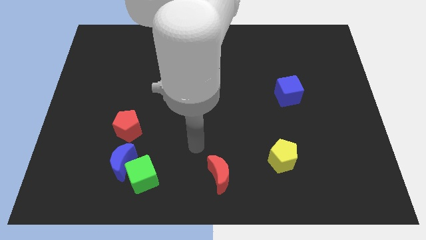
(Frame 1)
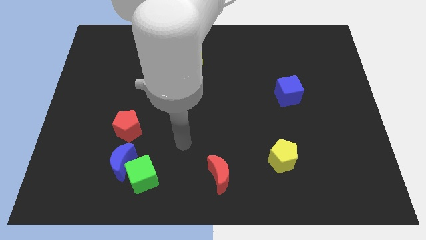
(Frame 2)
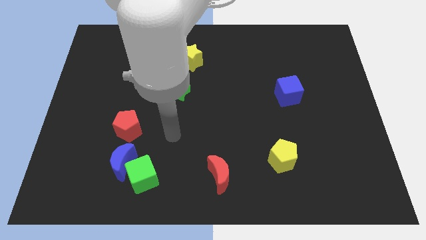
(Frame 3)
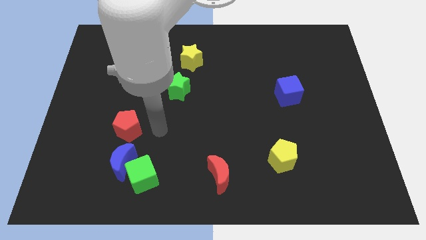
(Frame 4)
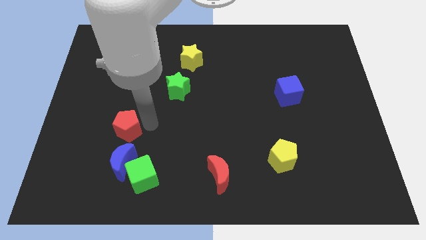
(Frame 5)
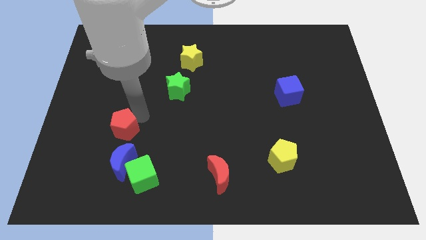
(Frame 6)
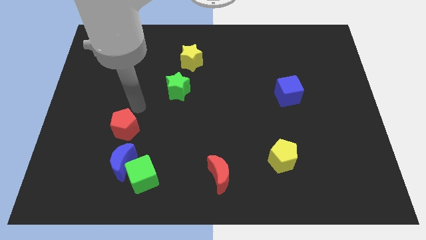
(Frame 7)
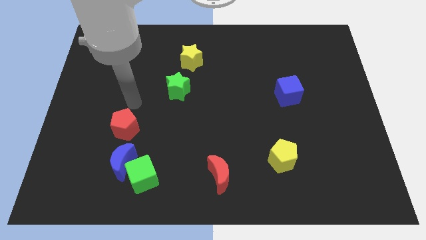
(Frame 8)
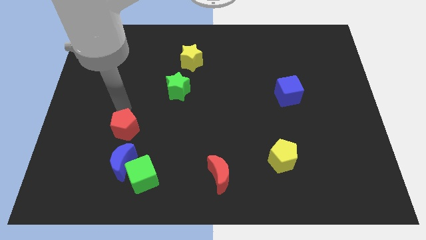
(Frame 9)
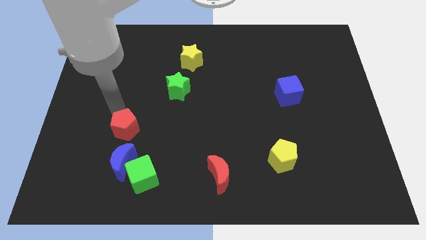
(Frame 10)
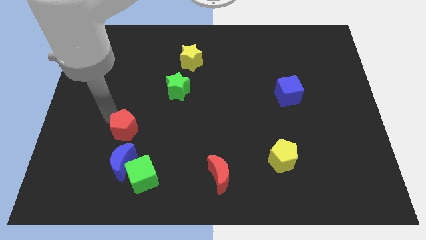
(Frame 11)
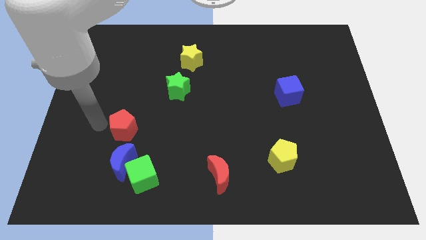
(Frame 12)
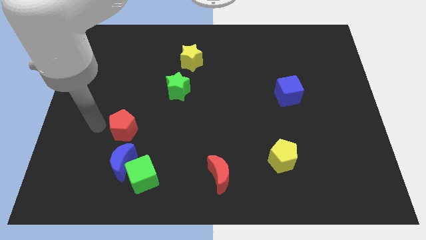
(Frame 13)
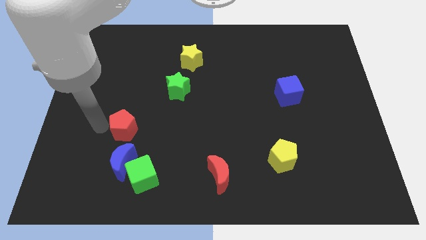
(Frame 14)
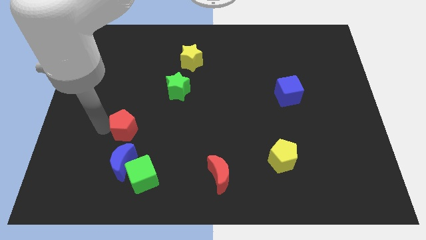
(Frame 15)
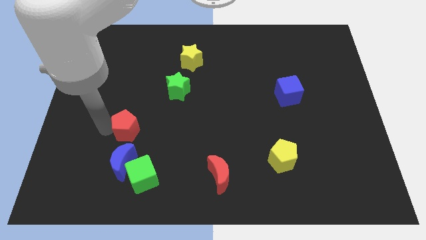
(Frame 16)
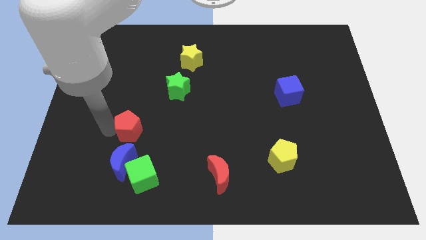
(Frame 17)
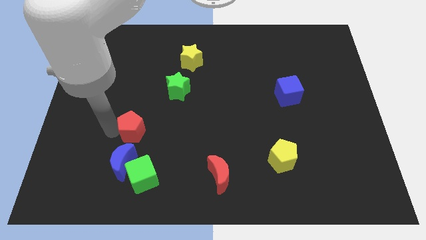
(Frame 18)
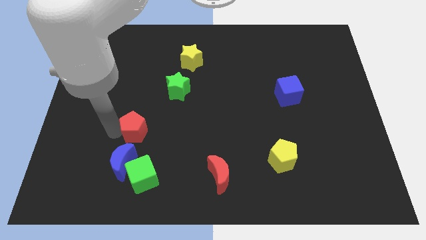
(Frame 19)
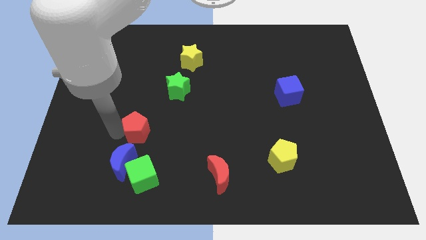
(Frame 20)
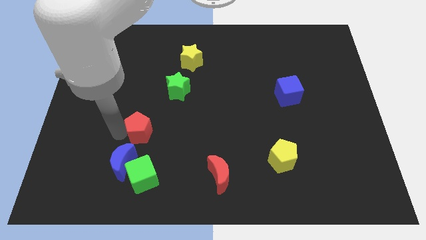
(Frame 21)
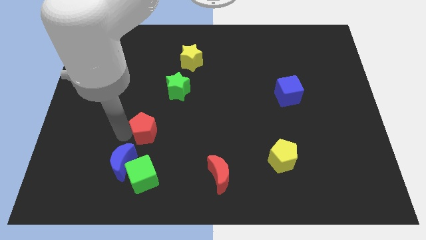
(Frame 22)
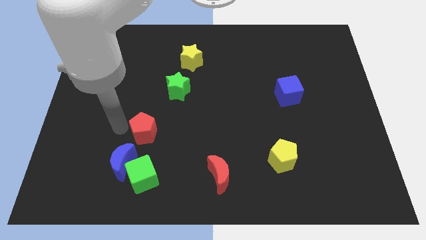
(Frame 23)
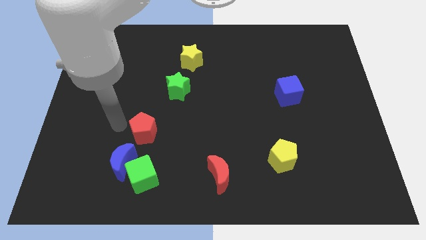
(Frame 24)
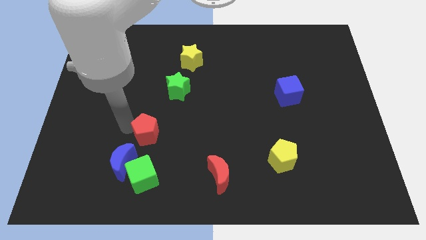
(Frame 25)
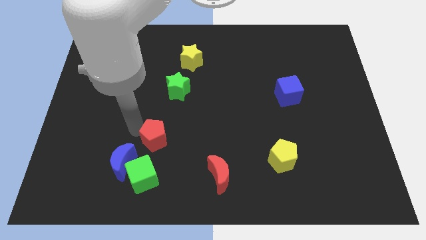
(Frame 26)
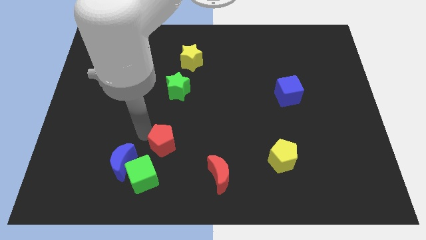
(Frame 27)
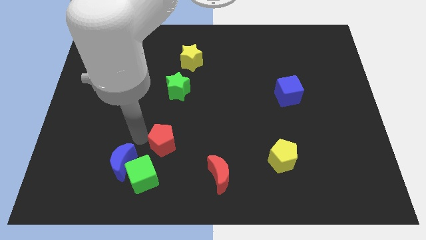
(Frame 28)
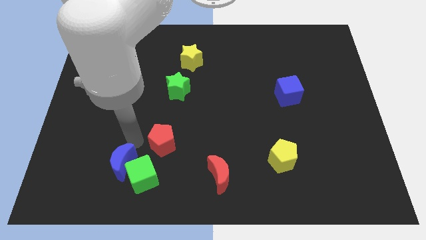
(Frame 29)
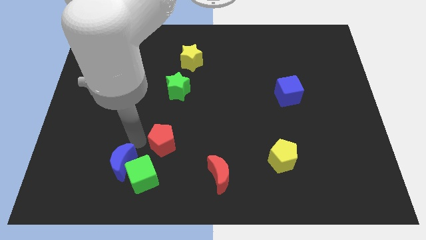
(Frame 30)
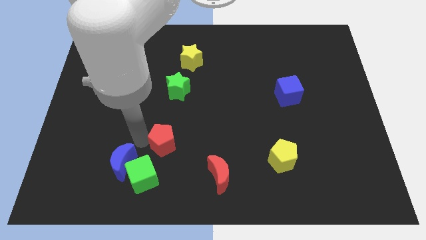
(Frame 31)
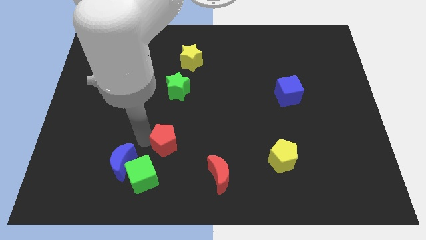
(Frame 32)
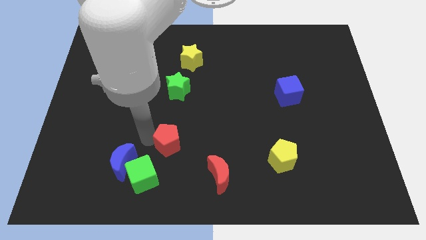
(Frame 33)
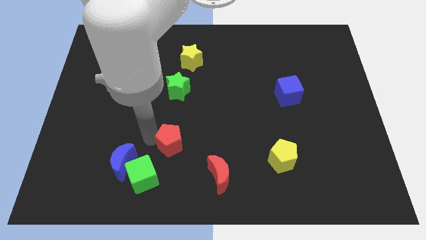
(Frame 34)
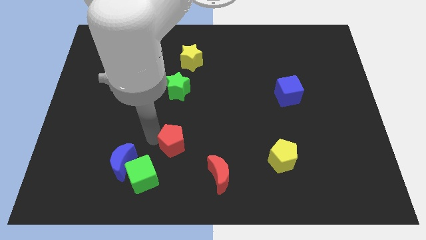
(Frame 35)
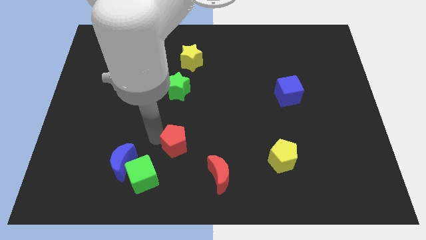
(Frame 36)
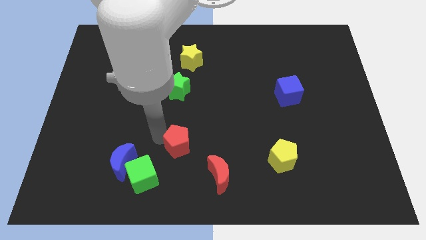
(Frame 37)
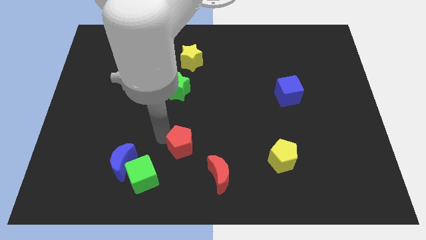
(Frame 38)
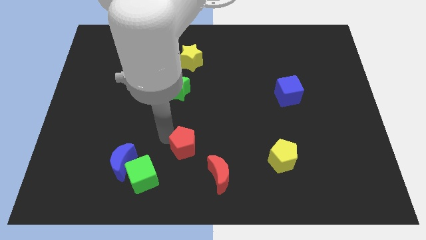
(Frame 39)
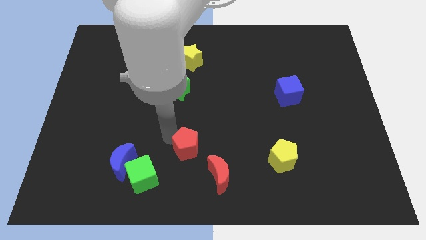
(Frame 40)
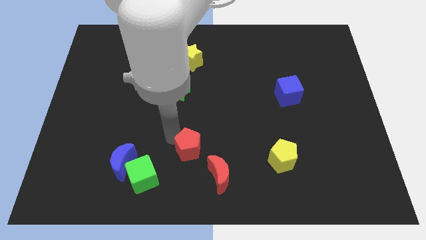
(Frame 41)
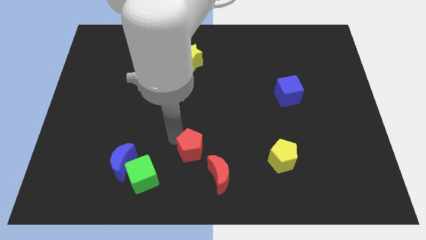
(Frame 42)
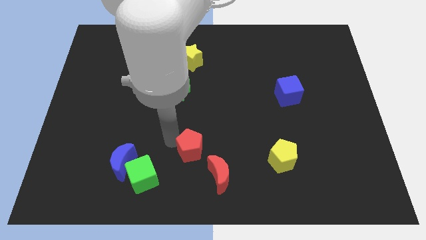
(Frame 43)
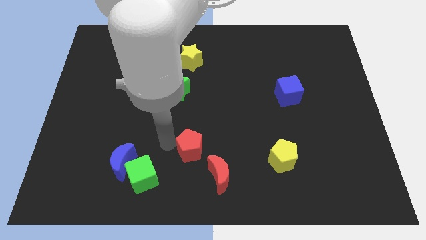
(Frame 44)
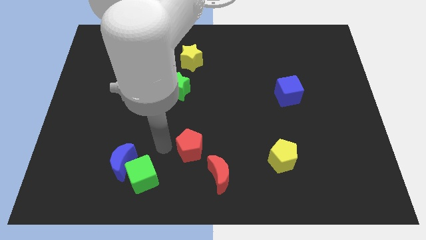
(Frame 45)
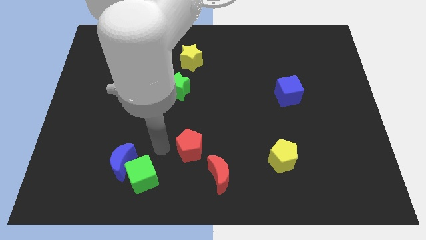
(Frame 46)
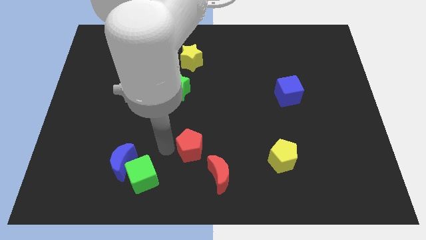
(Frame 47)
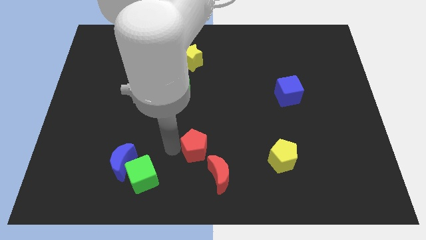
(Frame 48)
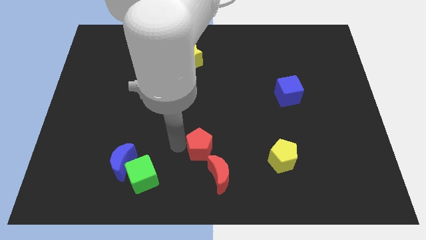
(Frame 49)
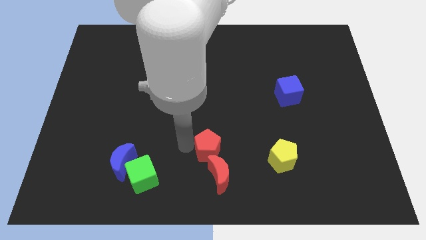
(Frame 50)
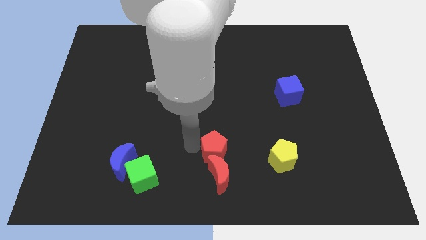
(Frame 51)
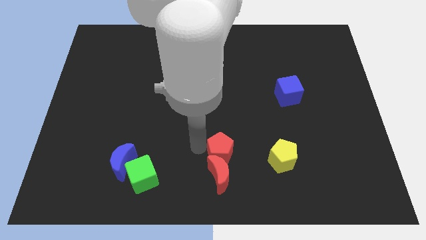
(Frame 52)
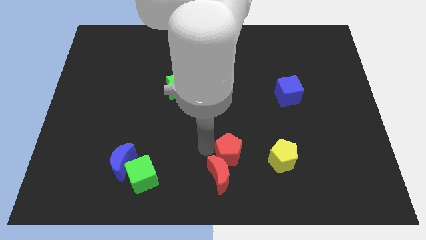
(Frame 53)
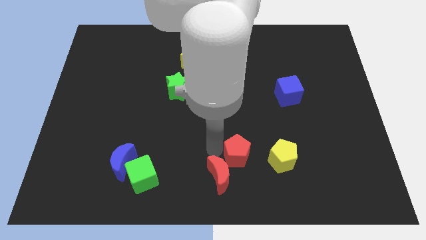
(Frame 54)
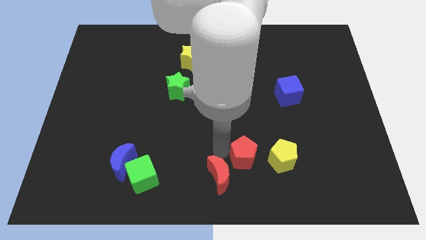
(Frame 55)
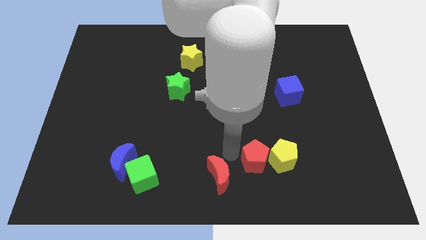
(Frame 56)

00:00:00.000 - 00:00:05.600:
move the red pentagon to the yellow pentagon

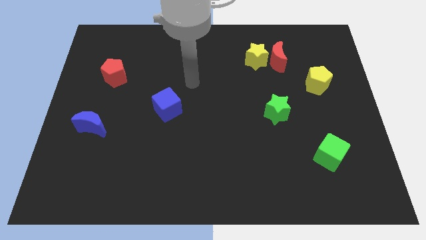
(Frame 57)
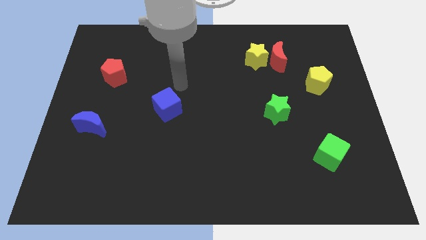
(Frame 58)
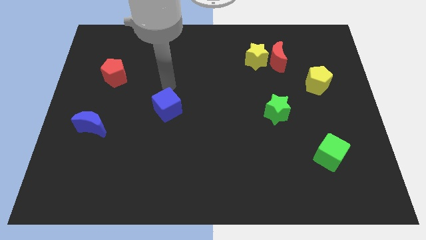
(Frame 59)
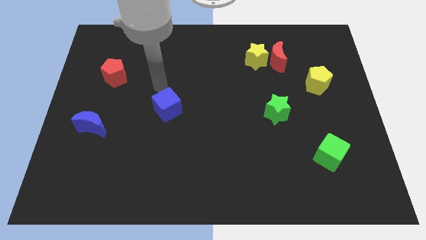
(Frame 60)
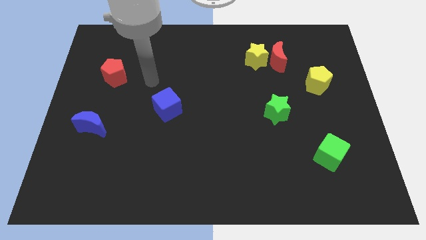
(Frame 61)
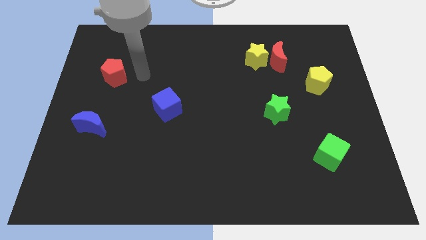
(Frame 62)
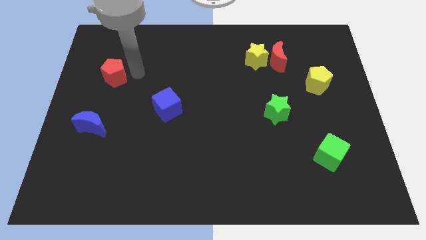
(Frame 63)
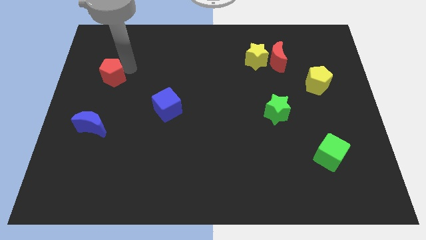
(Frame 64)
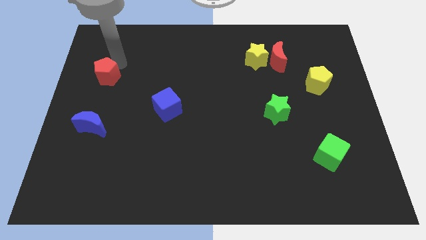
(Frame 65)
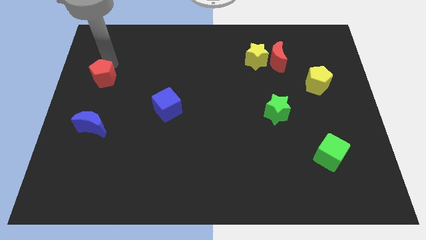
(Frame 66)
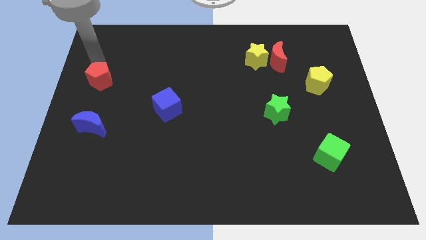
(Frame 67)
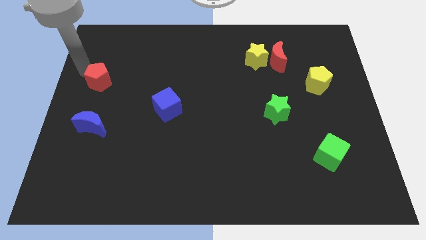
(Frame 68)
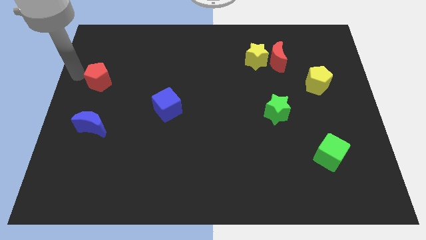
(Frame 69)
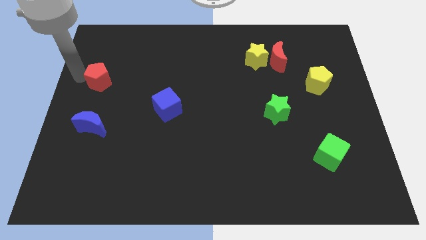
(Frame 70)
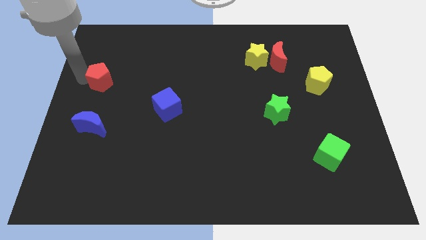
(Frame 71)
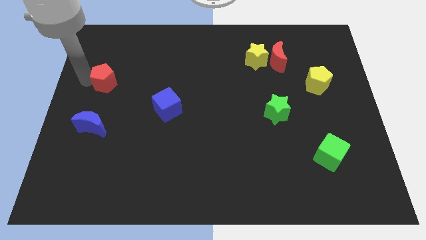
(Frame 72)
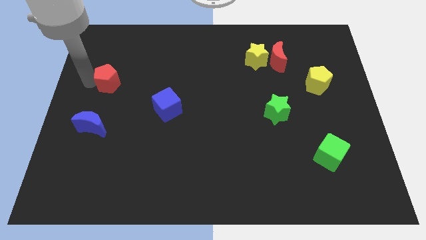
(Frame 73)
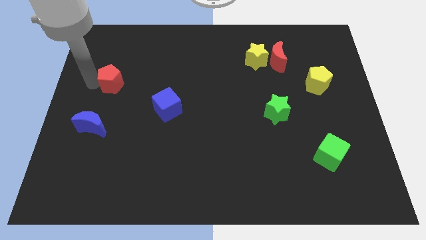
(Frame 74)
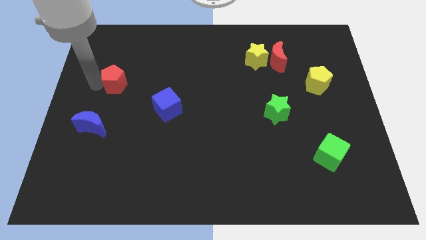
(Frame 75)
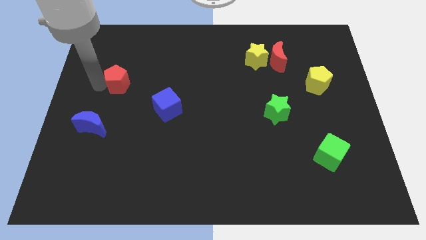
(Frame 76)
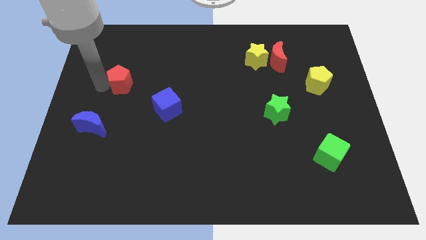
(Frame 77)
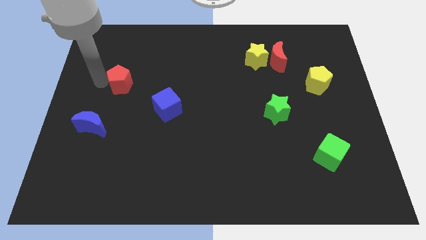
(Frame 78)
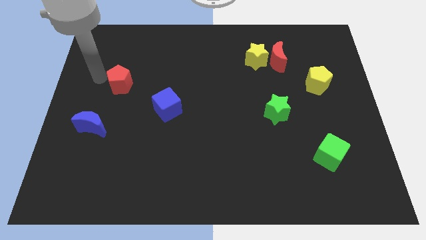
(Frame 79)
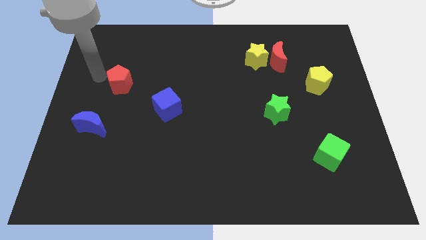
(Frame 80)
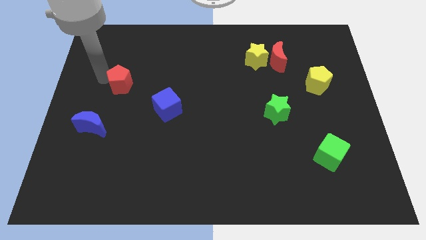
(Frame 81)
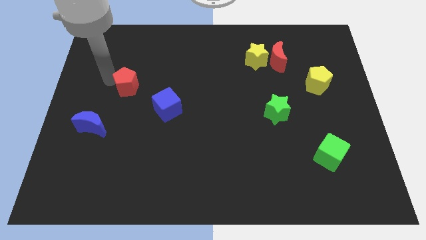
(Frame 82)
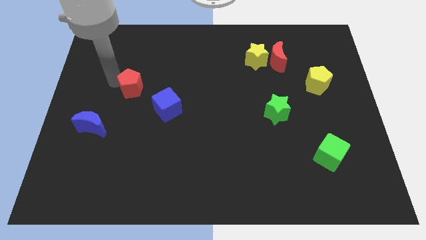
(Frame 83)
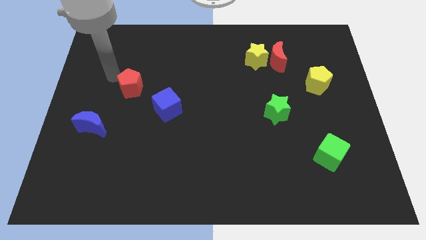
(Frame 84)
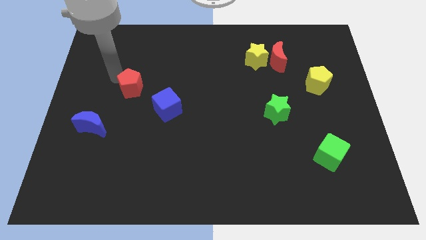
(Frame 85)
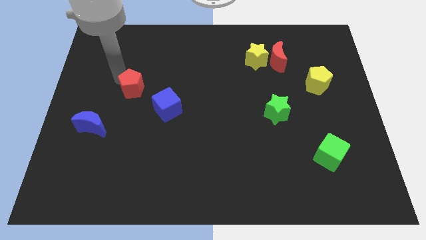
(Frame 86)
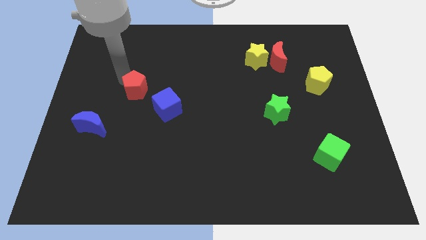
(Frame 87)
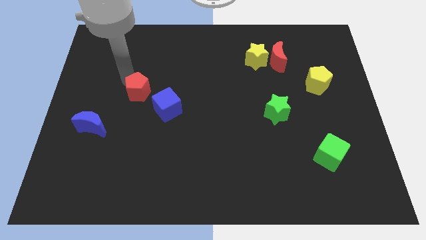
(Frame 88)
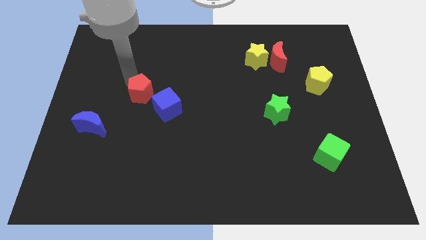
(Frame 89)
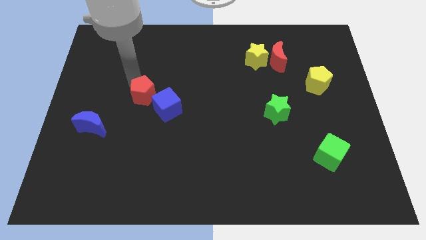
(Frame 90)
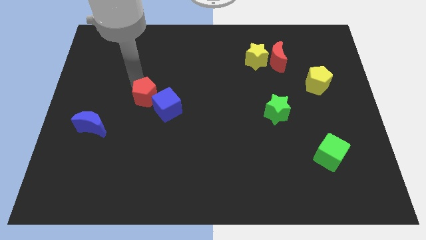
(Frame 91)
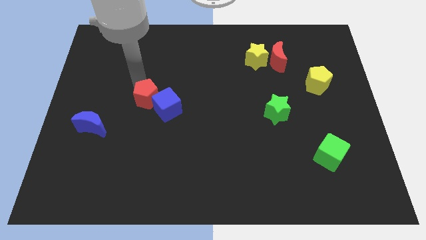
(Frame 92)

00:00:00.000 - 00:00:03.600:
slide the red pentagon towards the blue cube
